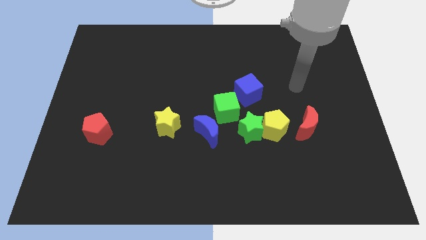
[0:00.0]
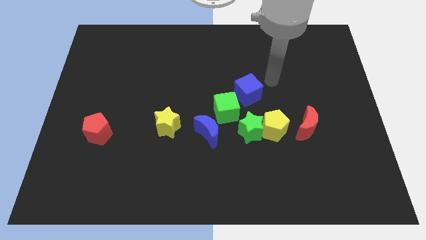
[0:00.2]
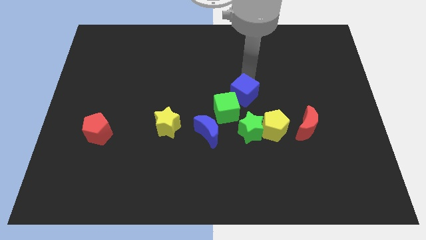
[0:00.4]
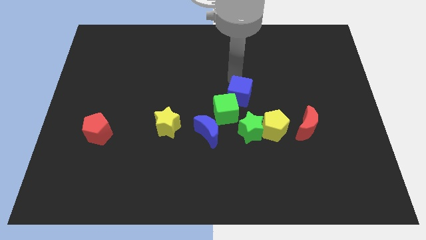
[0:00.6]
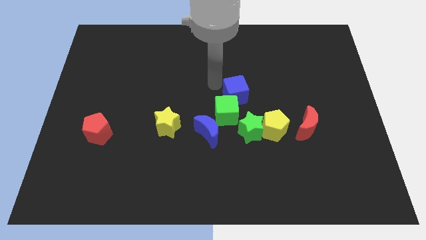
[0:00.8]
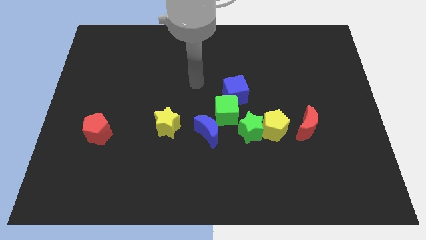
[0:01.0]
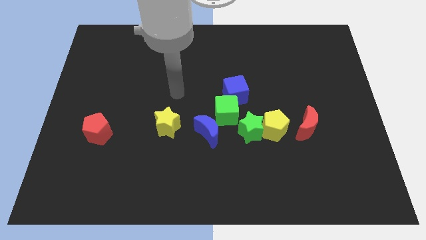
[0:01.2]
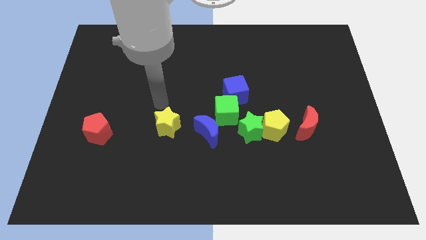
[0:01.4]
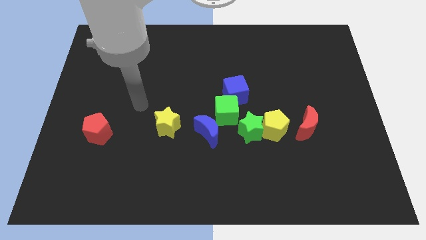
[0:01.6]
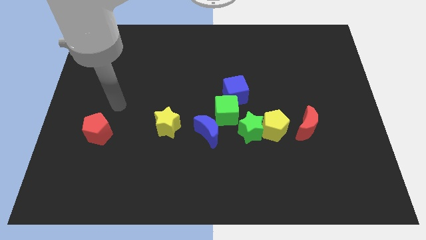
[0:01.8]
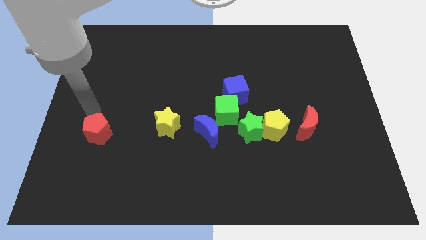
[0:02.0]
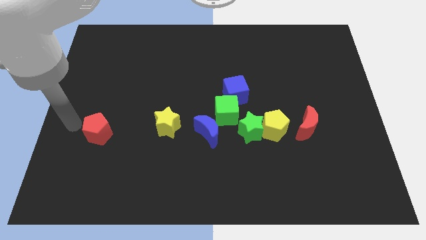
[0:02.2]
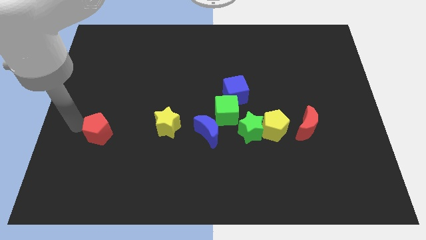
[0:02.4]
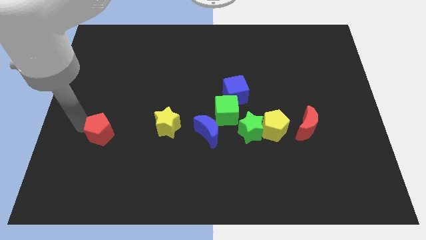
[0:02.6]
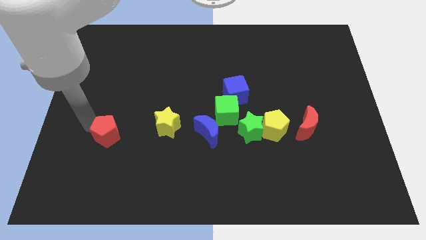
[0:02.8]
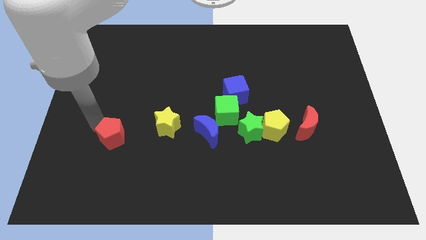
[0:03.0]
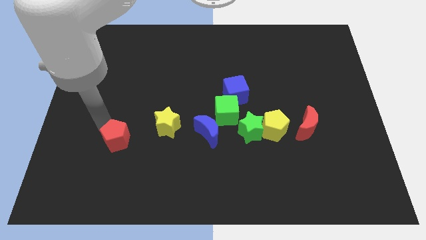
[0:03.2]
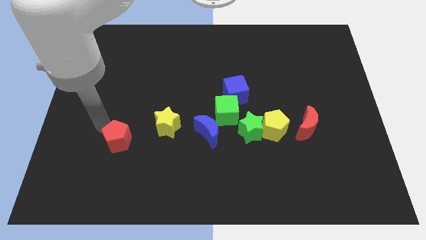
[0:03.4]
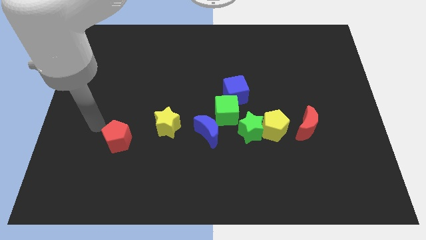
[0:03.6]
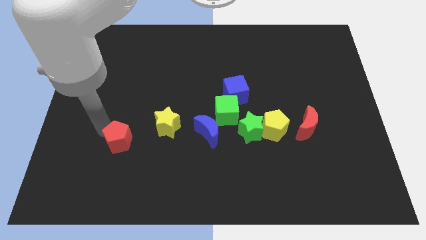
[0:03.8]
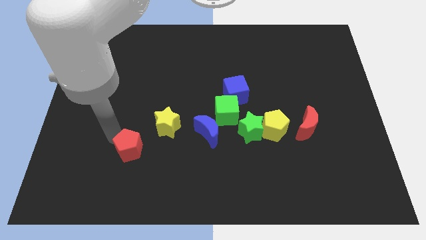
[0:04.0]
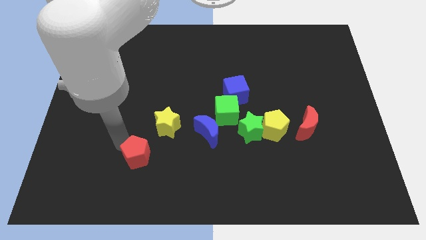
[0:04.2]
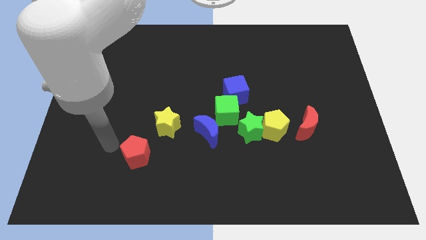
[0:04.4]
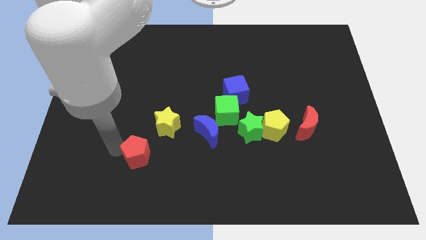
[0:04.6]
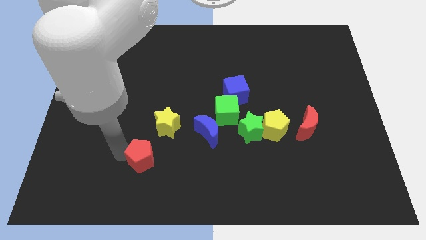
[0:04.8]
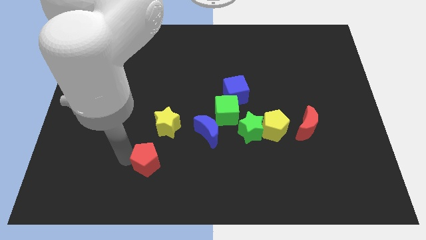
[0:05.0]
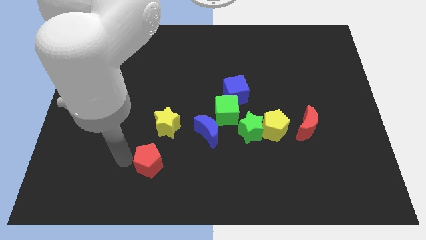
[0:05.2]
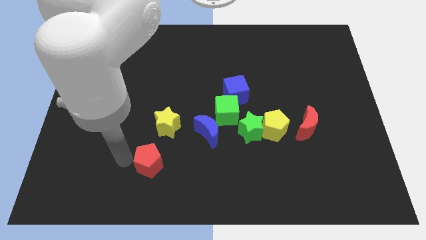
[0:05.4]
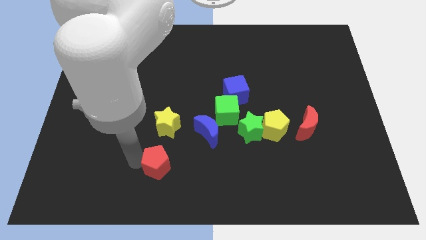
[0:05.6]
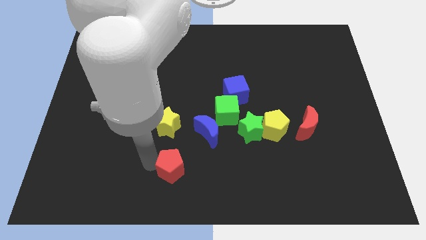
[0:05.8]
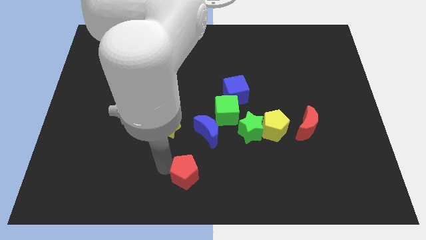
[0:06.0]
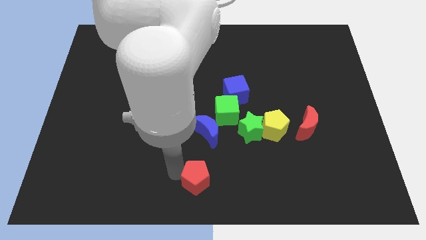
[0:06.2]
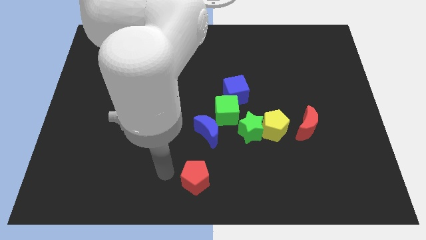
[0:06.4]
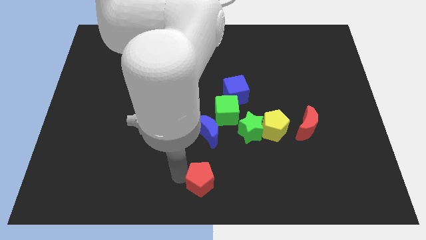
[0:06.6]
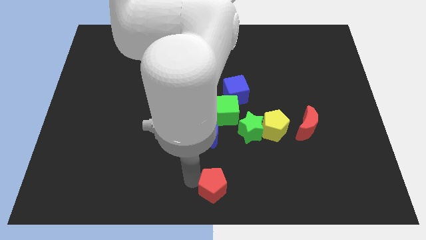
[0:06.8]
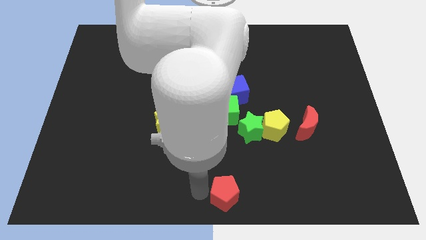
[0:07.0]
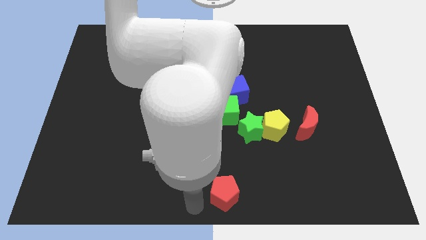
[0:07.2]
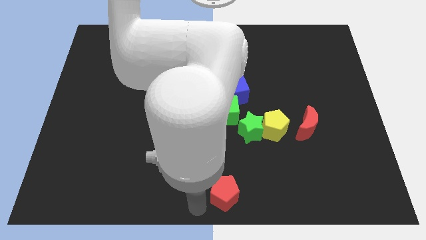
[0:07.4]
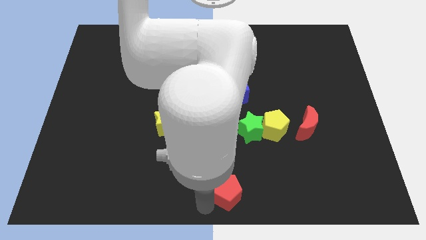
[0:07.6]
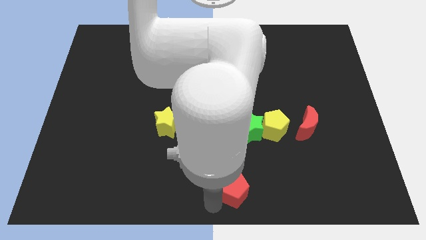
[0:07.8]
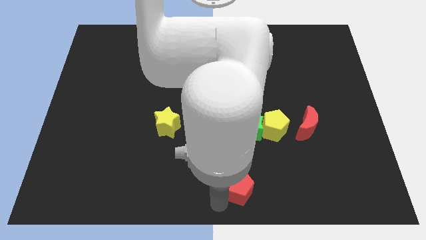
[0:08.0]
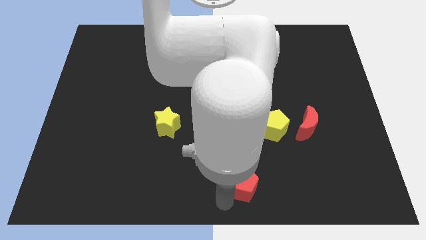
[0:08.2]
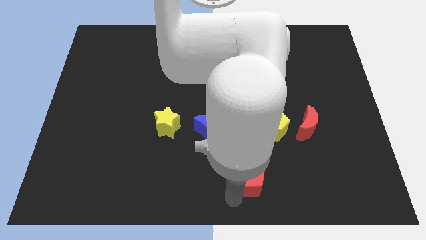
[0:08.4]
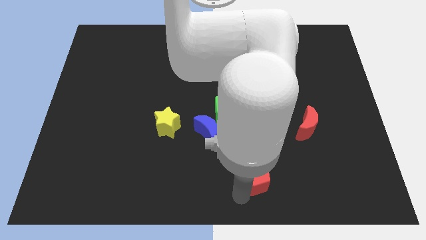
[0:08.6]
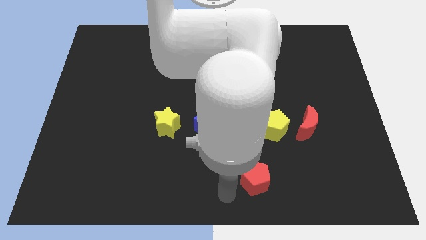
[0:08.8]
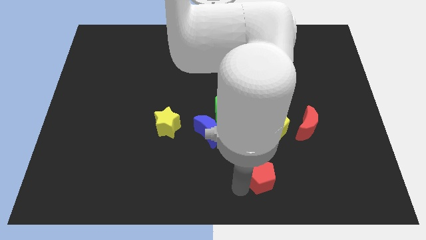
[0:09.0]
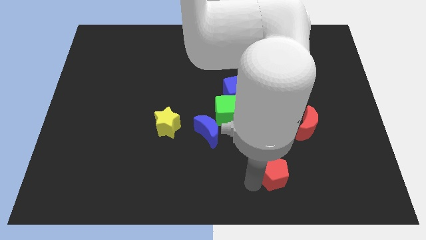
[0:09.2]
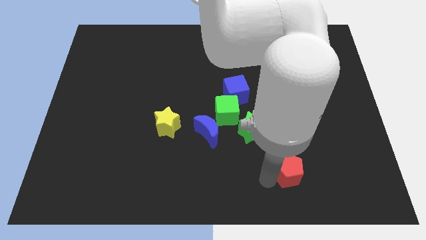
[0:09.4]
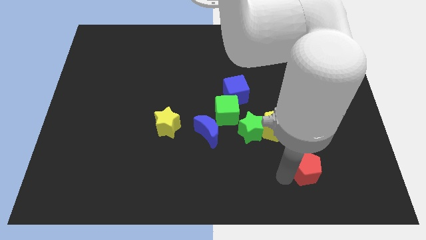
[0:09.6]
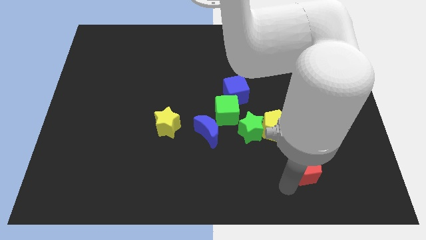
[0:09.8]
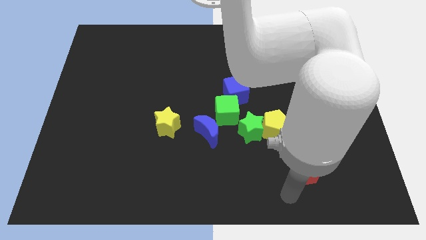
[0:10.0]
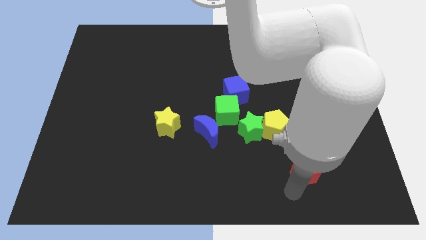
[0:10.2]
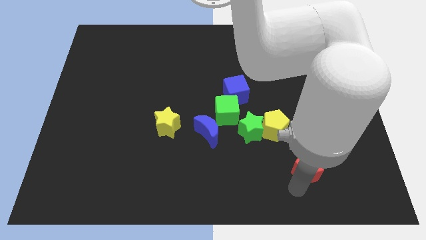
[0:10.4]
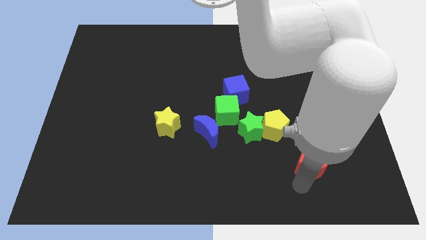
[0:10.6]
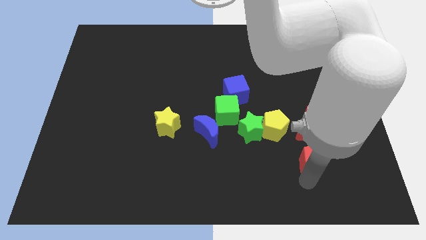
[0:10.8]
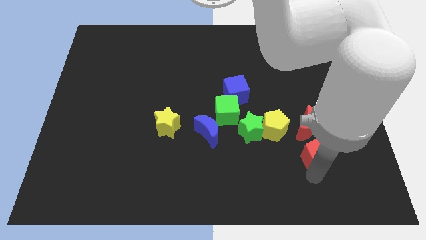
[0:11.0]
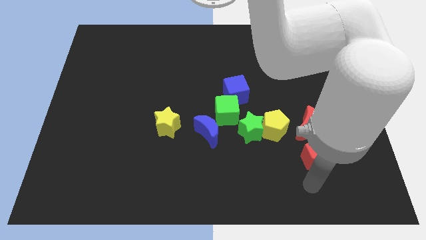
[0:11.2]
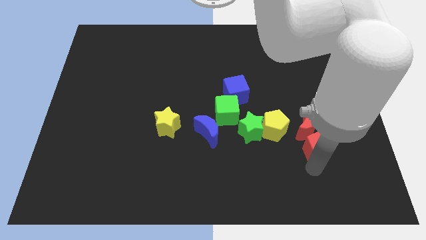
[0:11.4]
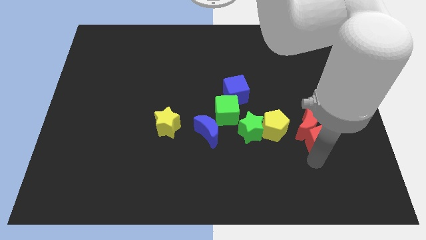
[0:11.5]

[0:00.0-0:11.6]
push the red pentagon right of the yellow pentagon

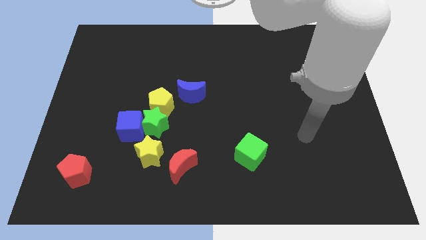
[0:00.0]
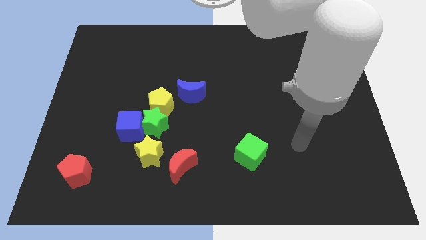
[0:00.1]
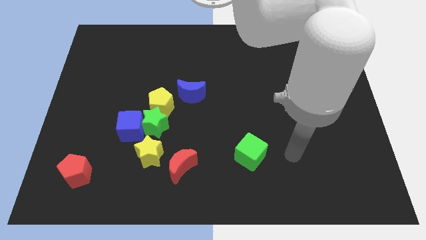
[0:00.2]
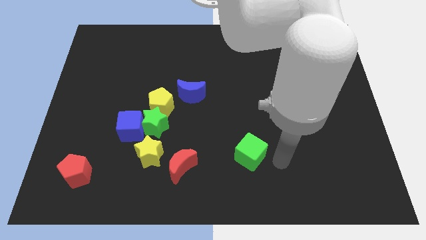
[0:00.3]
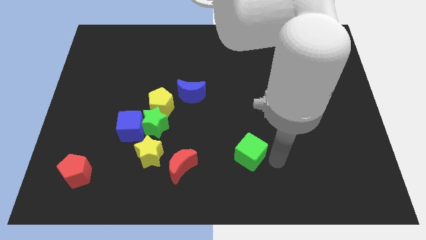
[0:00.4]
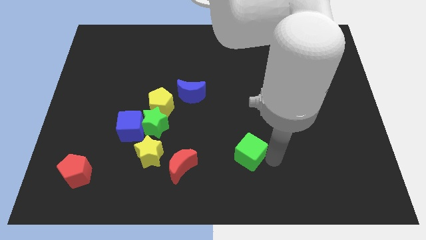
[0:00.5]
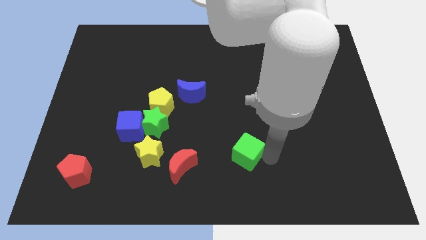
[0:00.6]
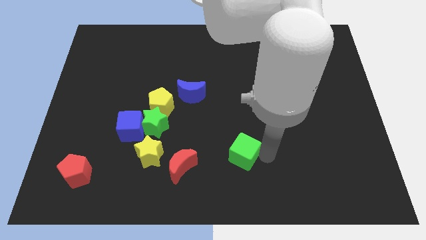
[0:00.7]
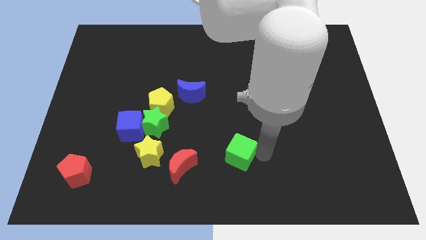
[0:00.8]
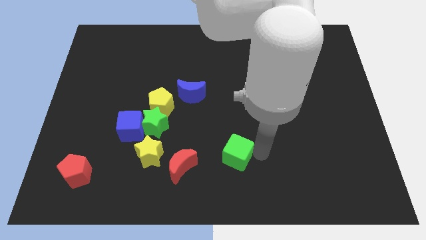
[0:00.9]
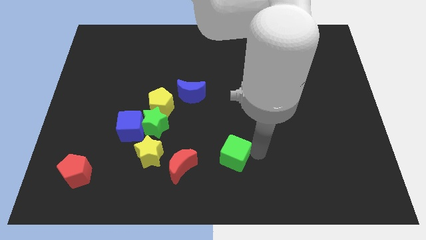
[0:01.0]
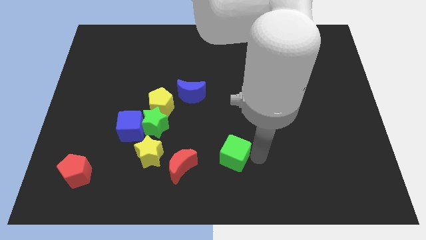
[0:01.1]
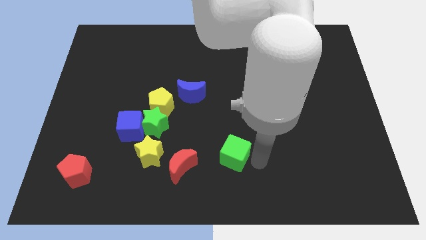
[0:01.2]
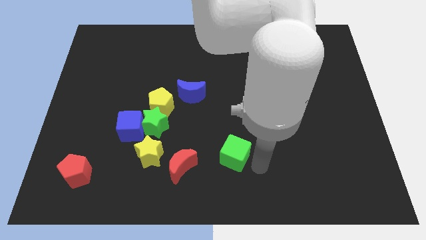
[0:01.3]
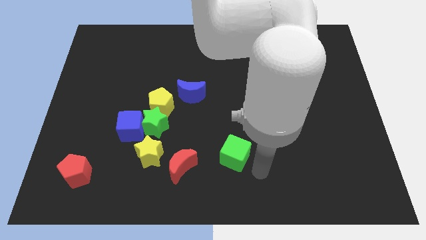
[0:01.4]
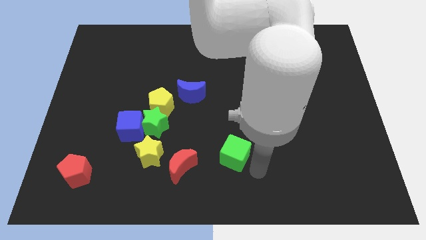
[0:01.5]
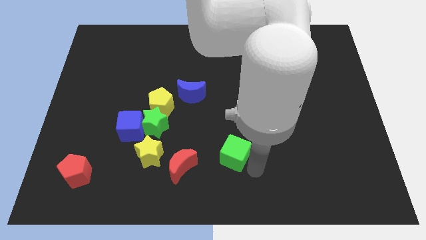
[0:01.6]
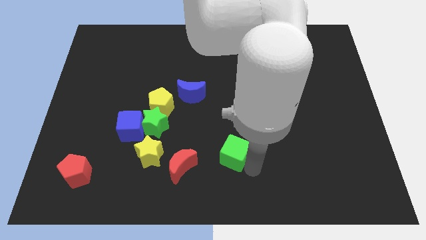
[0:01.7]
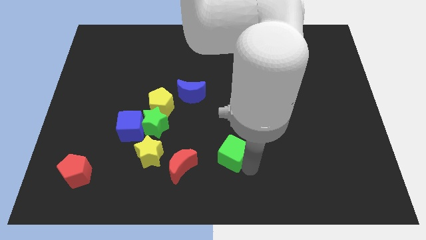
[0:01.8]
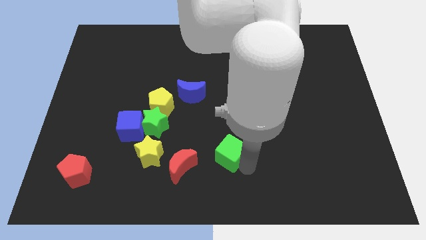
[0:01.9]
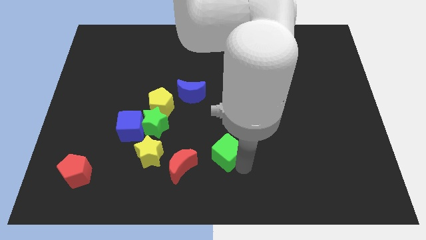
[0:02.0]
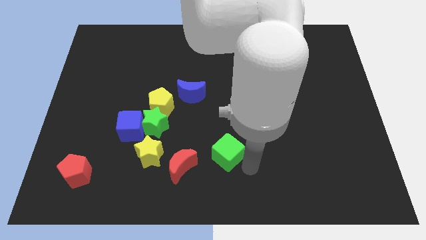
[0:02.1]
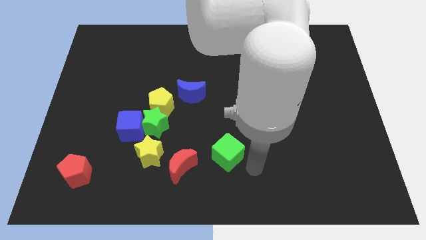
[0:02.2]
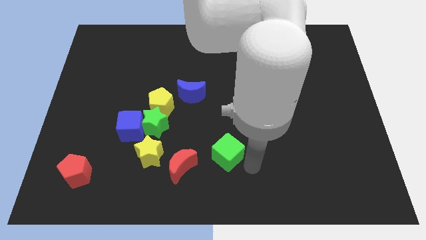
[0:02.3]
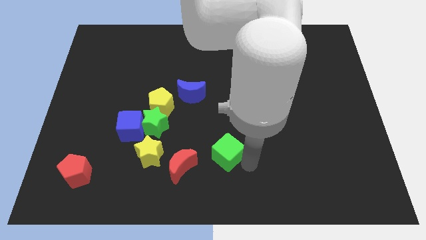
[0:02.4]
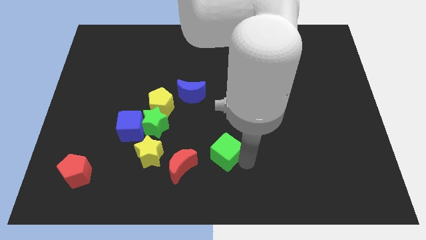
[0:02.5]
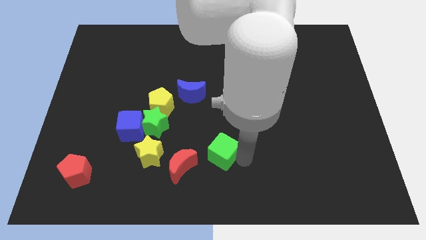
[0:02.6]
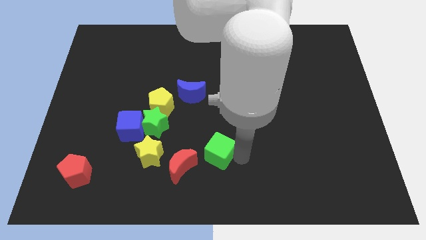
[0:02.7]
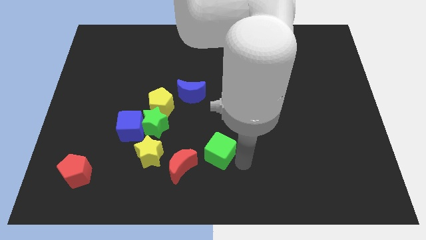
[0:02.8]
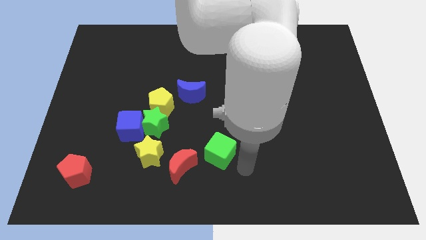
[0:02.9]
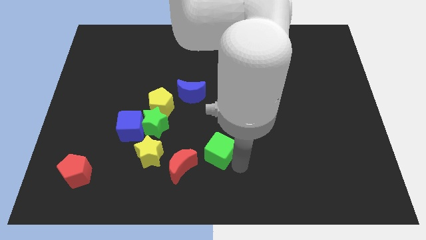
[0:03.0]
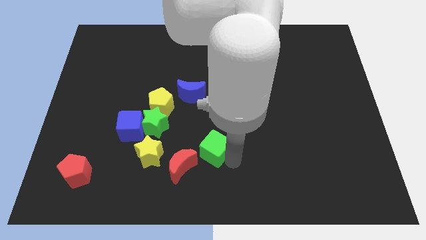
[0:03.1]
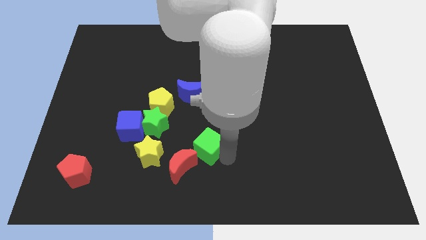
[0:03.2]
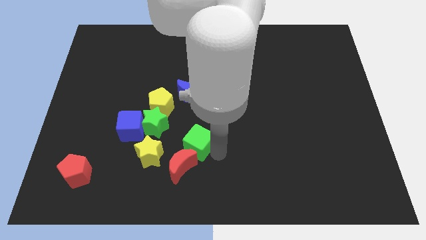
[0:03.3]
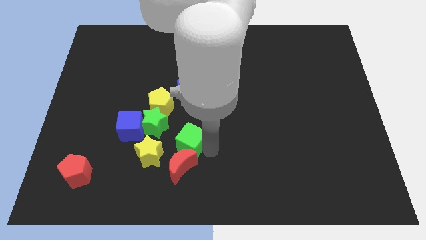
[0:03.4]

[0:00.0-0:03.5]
move the green cube right of the blue cube
